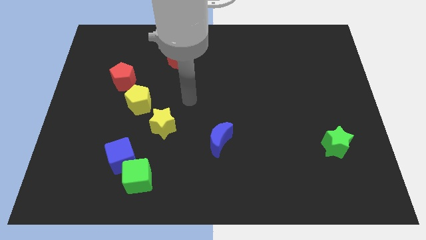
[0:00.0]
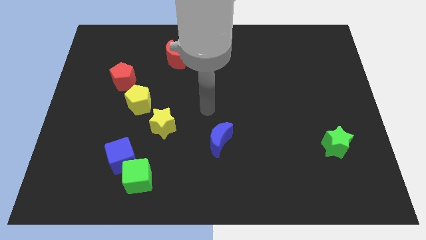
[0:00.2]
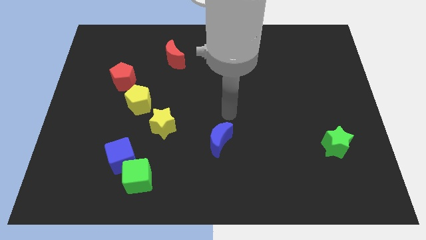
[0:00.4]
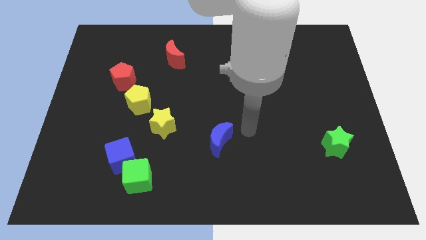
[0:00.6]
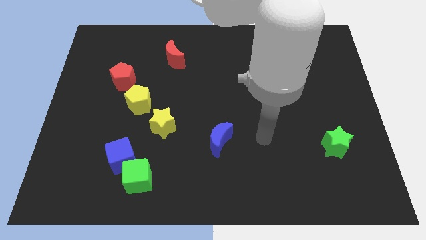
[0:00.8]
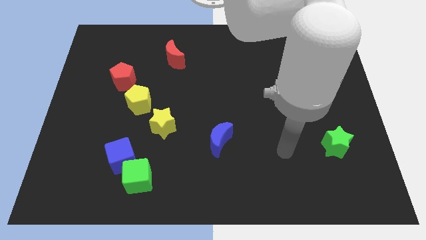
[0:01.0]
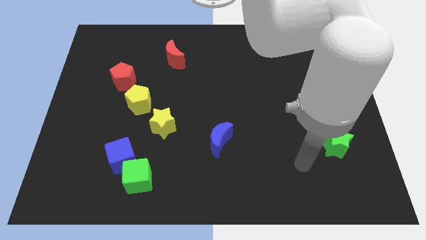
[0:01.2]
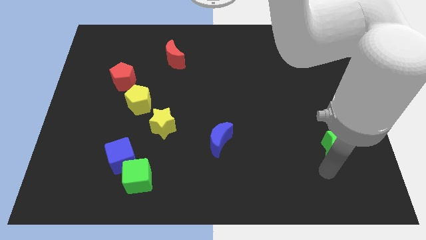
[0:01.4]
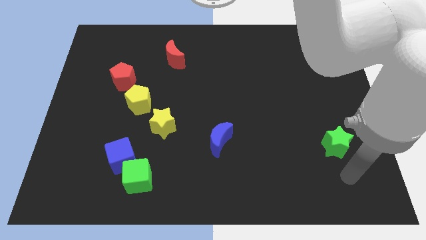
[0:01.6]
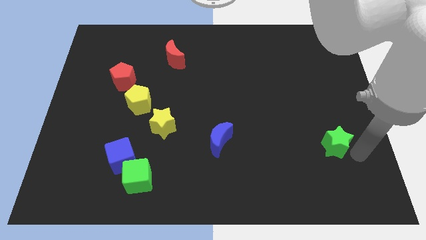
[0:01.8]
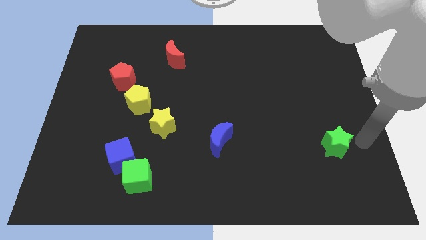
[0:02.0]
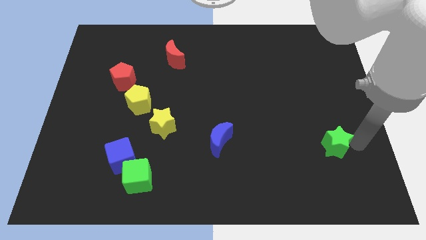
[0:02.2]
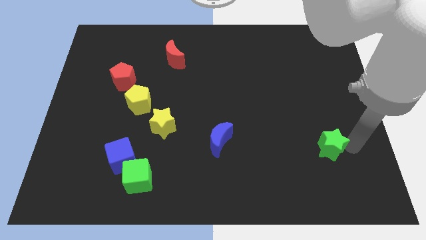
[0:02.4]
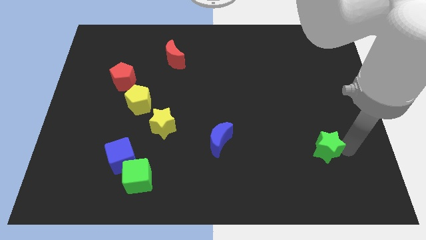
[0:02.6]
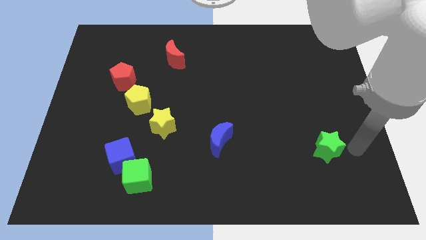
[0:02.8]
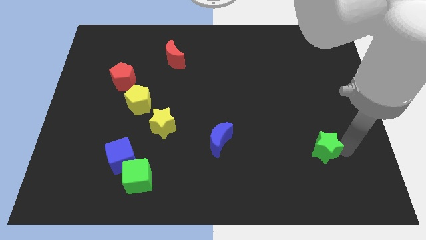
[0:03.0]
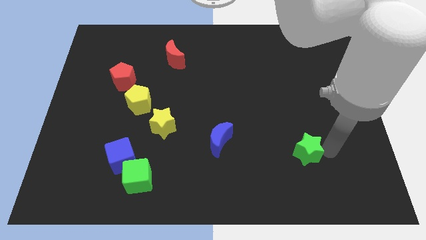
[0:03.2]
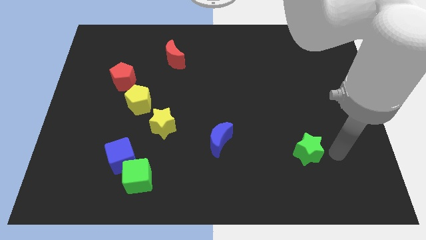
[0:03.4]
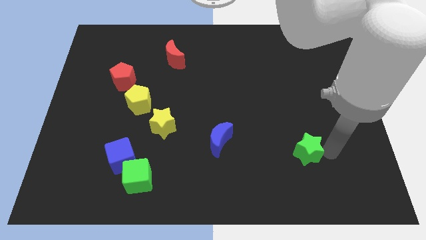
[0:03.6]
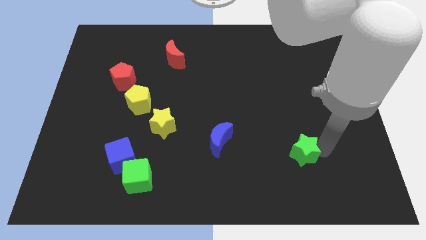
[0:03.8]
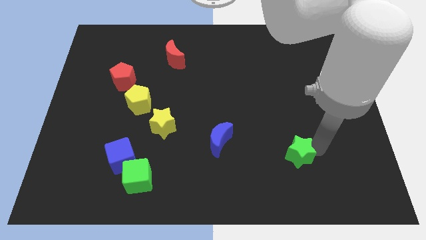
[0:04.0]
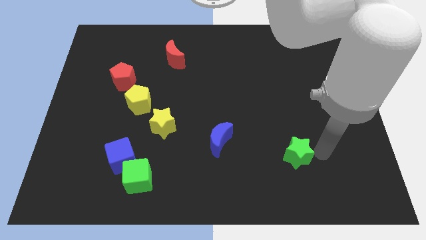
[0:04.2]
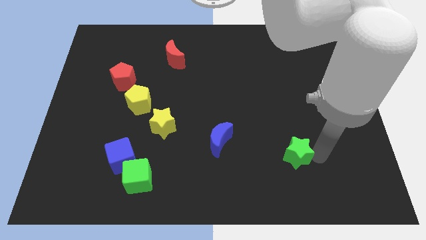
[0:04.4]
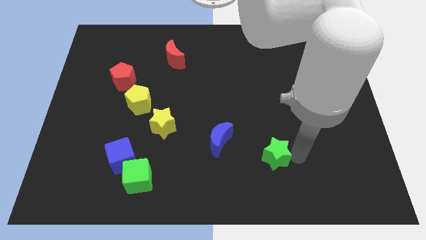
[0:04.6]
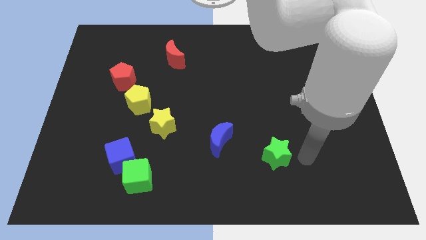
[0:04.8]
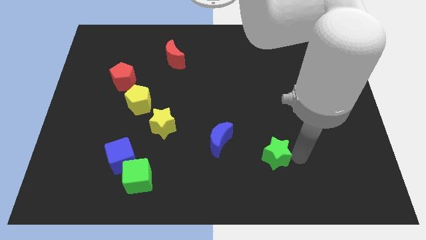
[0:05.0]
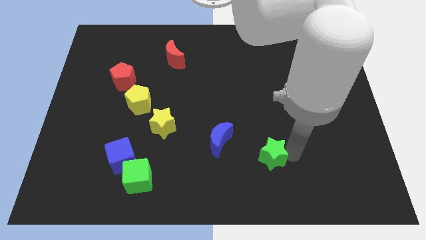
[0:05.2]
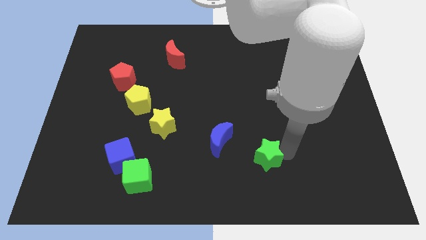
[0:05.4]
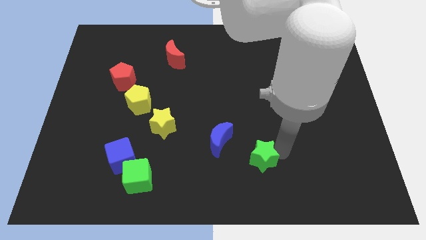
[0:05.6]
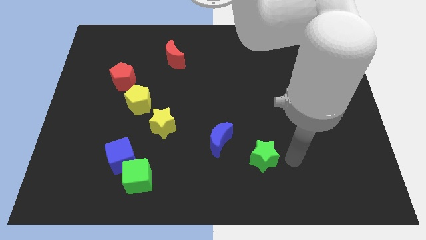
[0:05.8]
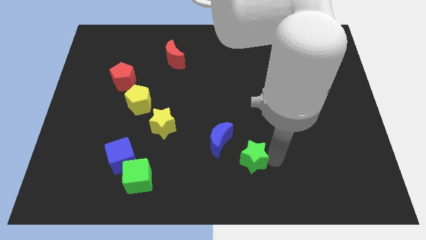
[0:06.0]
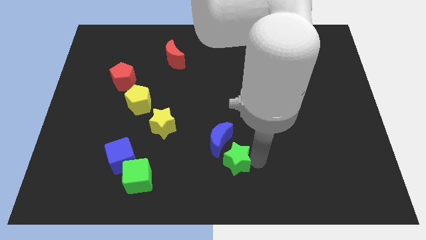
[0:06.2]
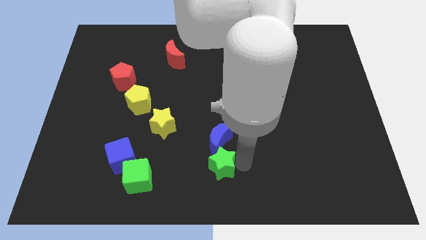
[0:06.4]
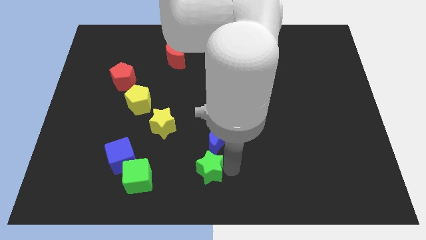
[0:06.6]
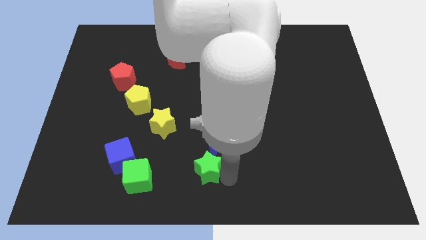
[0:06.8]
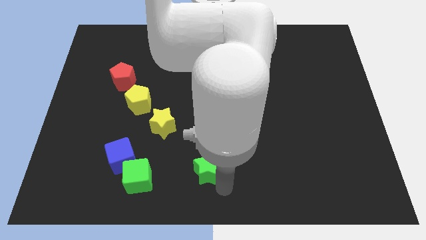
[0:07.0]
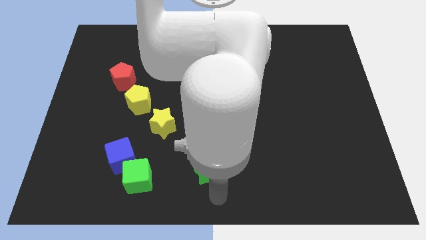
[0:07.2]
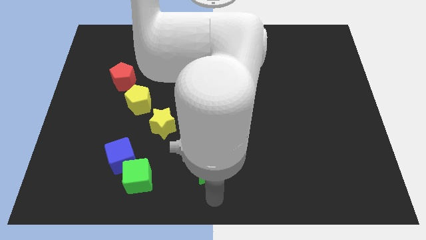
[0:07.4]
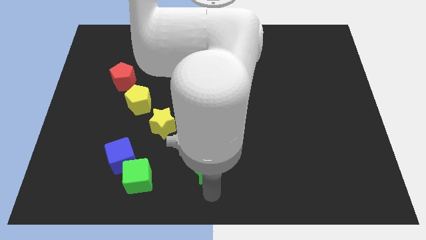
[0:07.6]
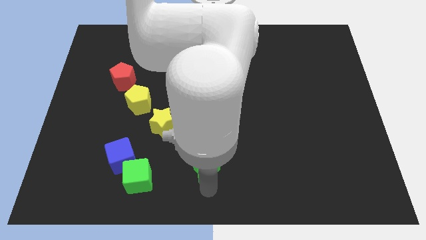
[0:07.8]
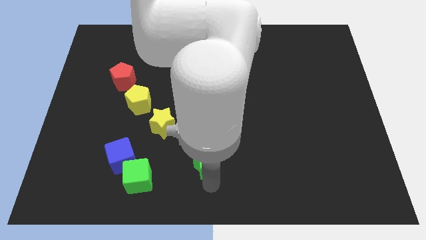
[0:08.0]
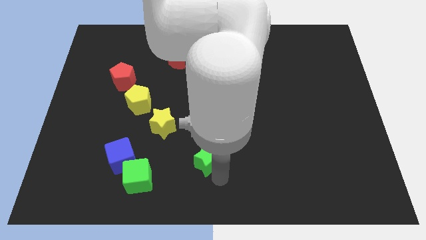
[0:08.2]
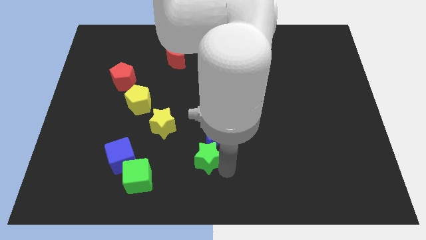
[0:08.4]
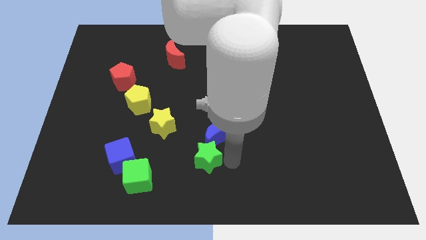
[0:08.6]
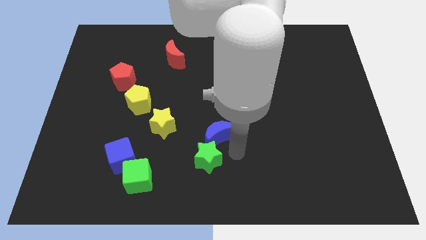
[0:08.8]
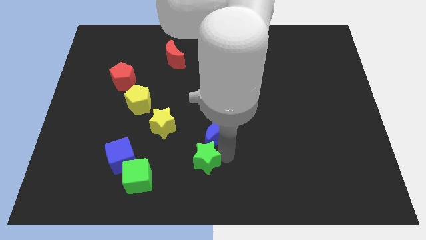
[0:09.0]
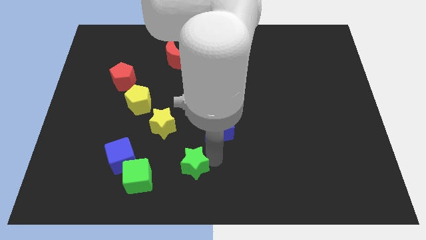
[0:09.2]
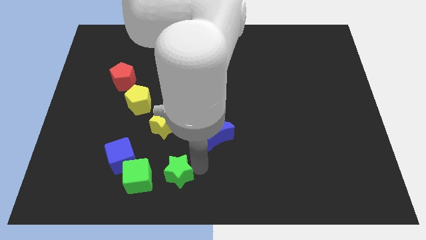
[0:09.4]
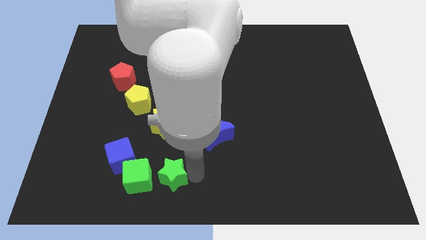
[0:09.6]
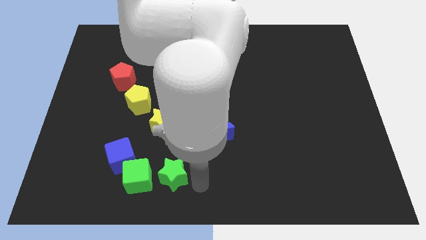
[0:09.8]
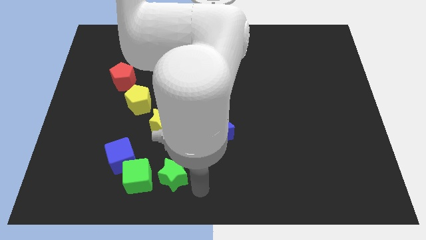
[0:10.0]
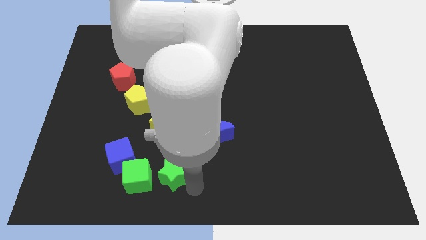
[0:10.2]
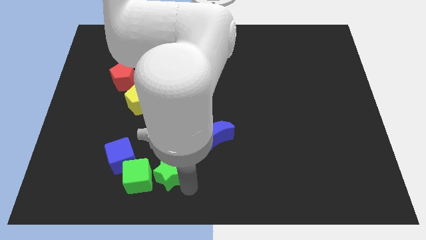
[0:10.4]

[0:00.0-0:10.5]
move the green star to the green cube

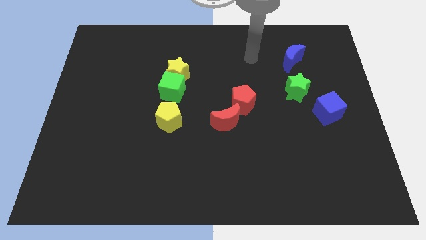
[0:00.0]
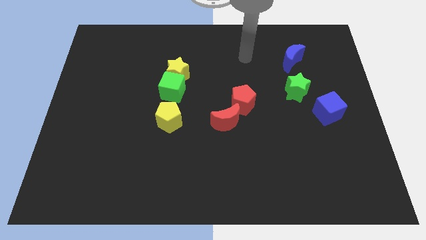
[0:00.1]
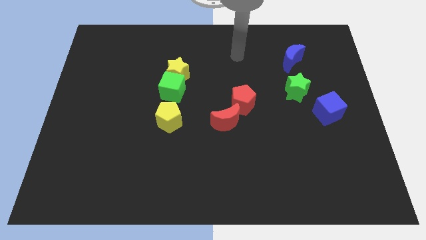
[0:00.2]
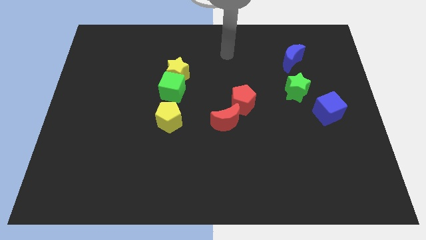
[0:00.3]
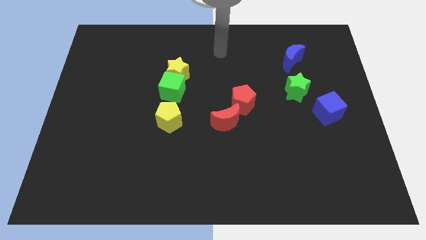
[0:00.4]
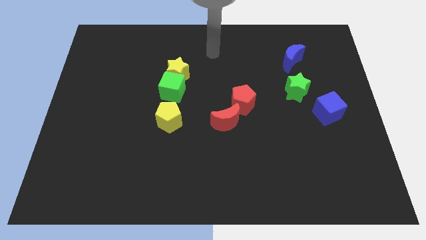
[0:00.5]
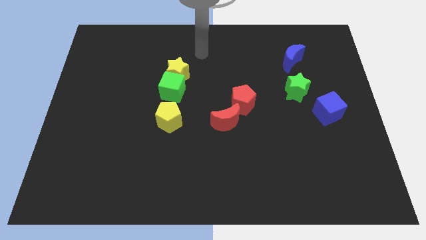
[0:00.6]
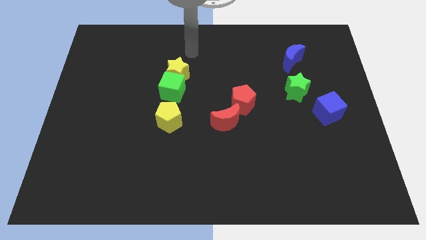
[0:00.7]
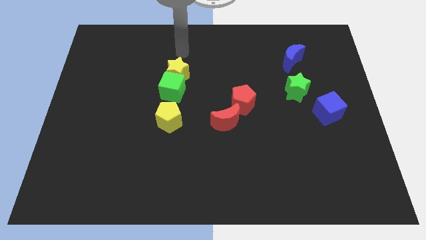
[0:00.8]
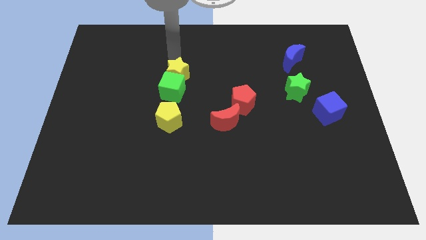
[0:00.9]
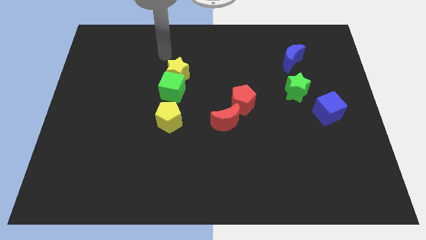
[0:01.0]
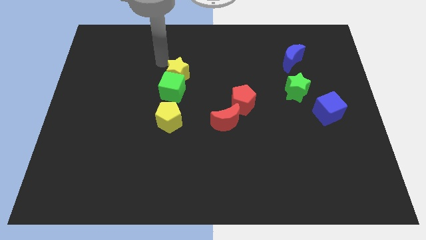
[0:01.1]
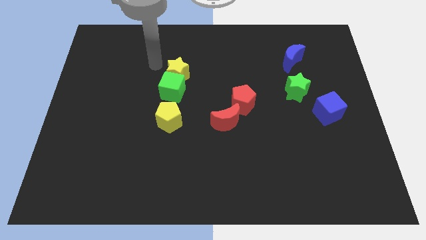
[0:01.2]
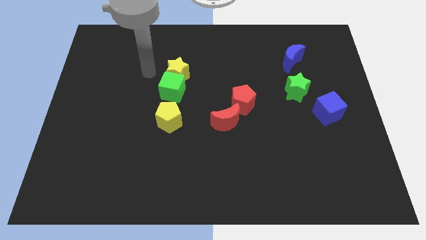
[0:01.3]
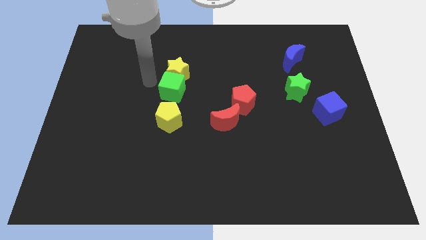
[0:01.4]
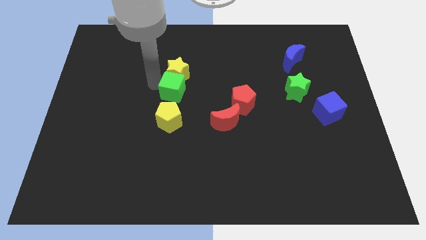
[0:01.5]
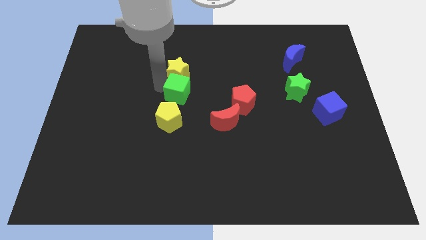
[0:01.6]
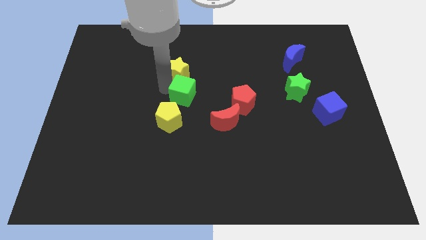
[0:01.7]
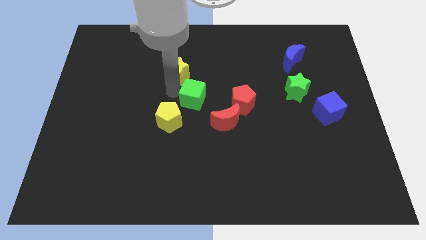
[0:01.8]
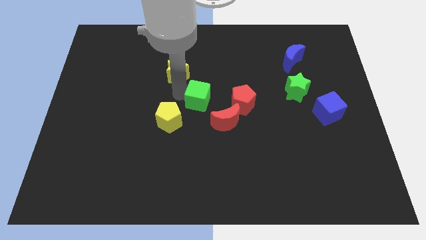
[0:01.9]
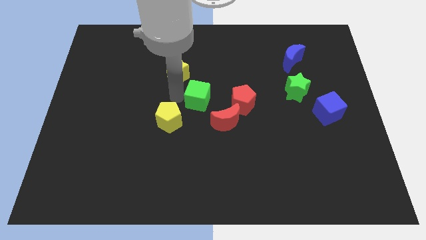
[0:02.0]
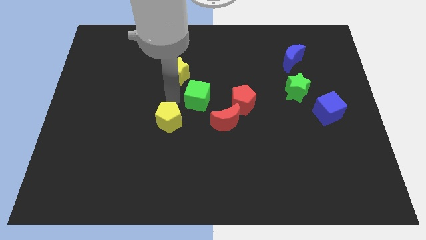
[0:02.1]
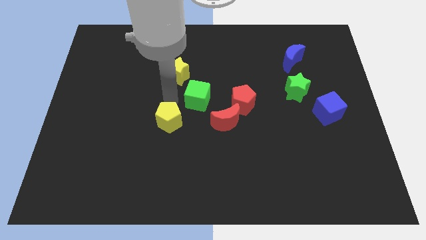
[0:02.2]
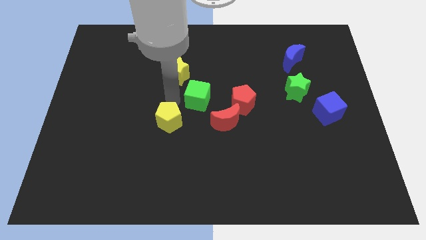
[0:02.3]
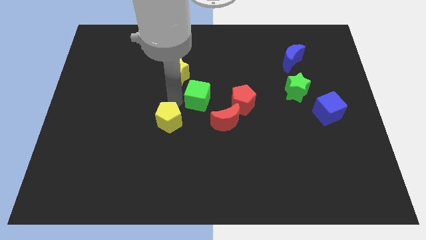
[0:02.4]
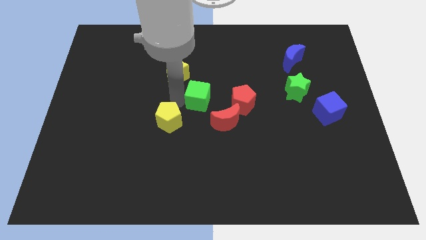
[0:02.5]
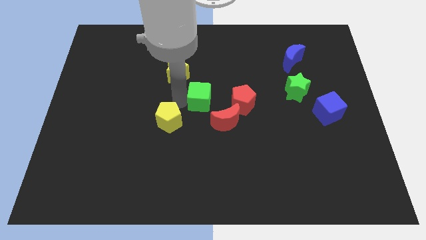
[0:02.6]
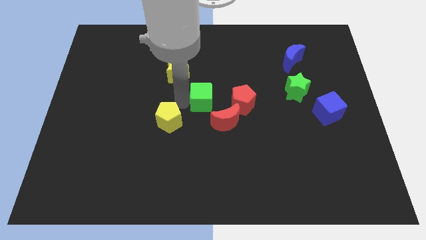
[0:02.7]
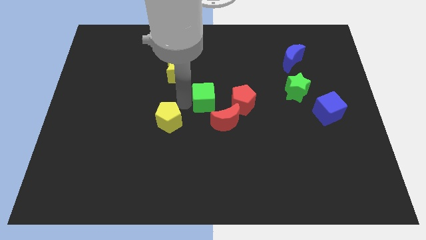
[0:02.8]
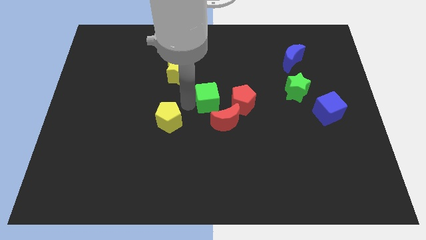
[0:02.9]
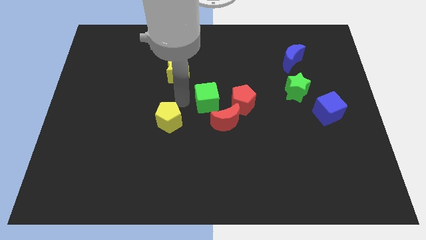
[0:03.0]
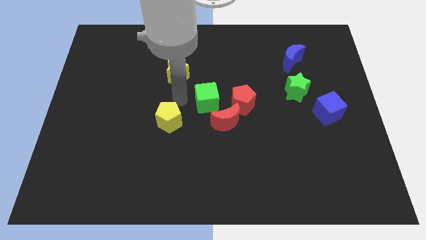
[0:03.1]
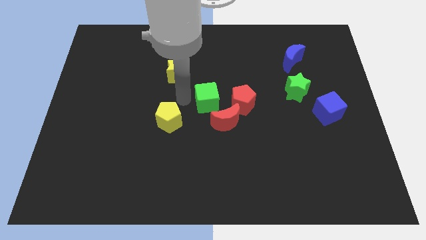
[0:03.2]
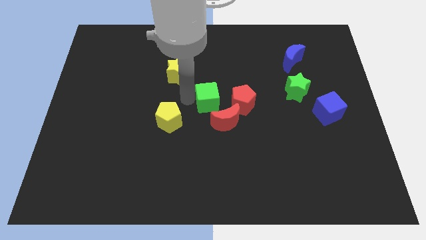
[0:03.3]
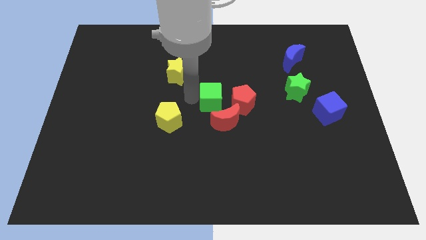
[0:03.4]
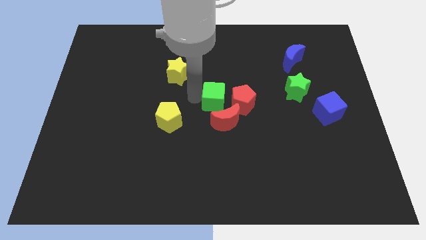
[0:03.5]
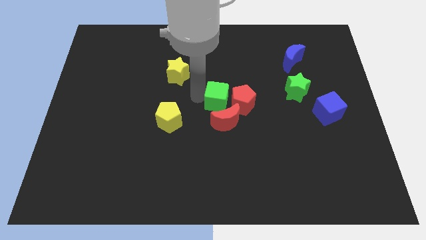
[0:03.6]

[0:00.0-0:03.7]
slide the green cube next to the red pentagon
